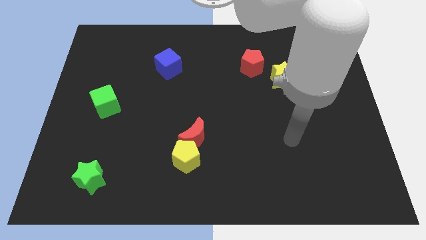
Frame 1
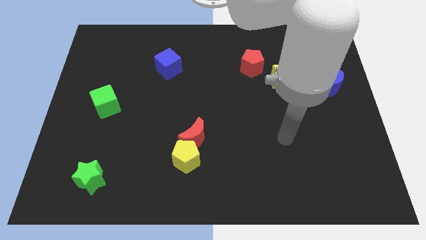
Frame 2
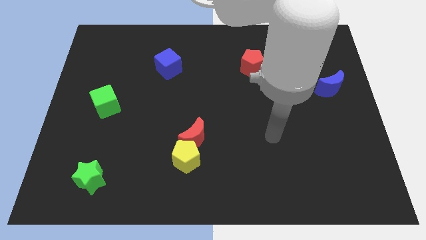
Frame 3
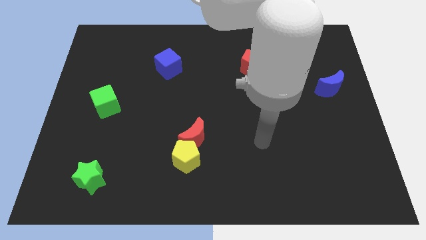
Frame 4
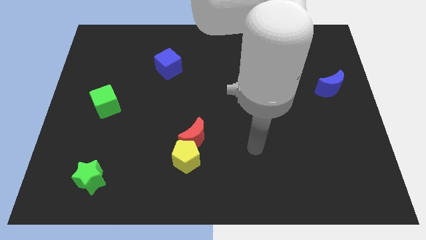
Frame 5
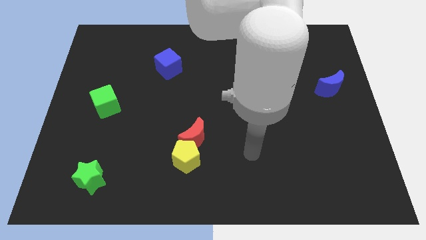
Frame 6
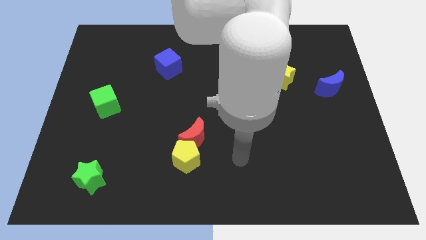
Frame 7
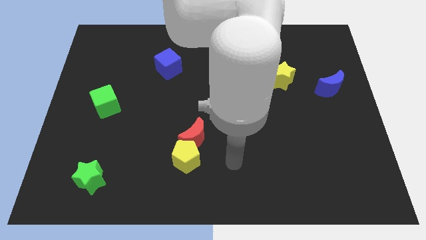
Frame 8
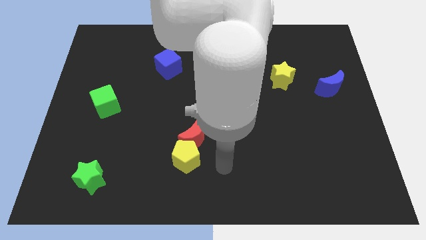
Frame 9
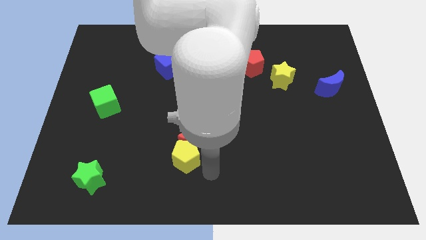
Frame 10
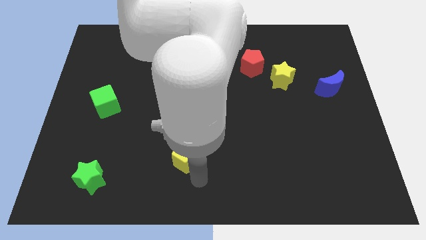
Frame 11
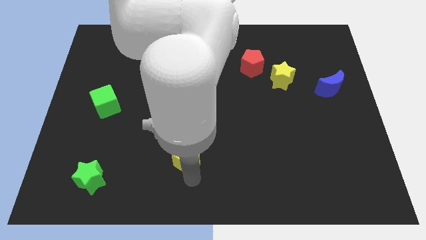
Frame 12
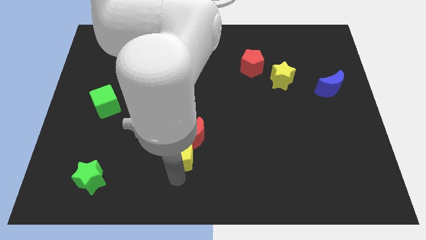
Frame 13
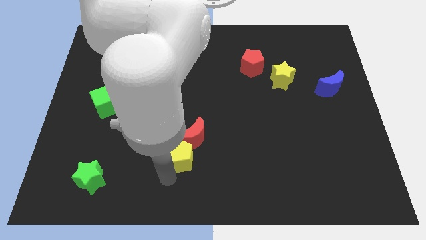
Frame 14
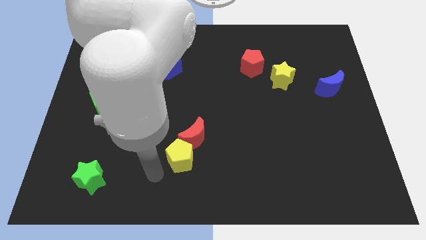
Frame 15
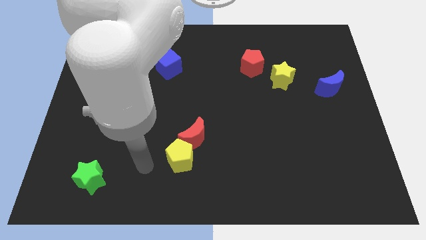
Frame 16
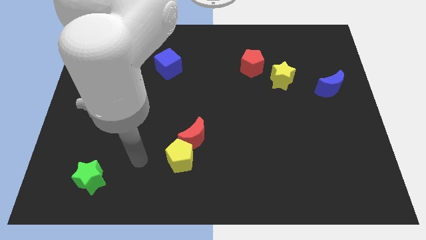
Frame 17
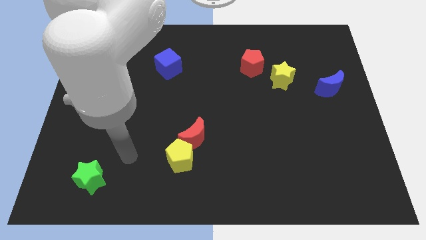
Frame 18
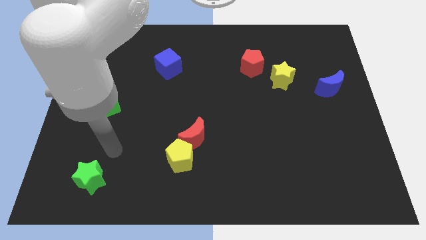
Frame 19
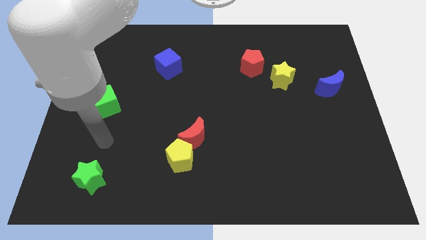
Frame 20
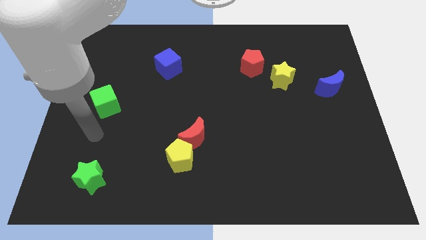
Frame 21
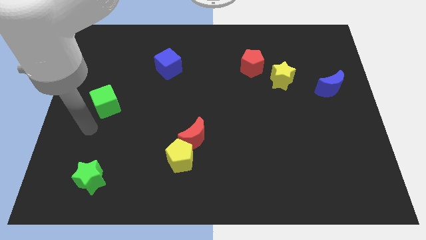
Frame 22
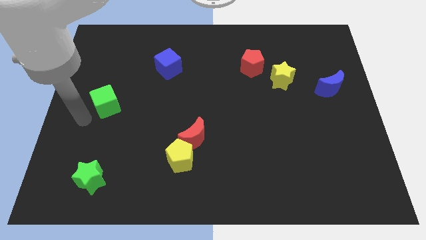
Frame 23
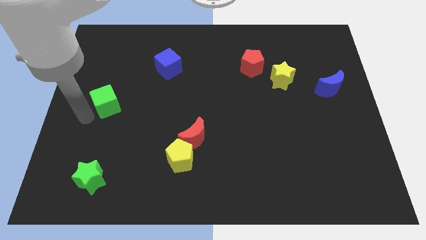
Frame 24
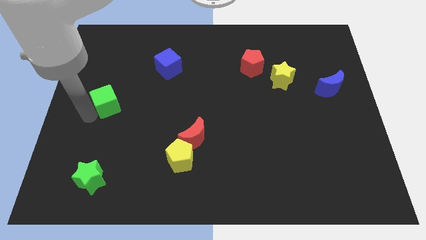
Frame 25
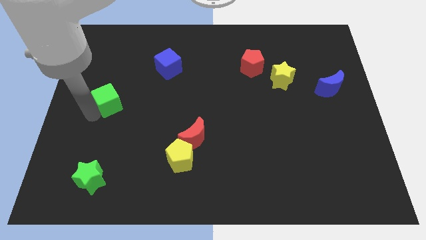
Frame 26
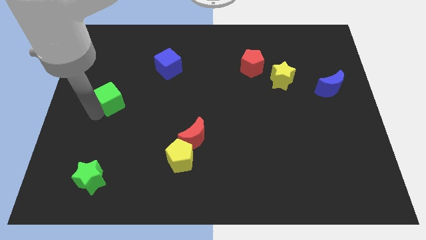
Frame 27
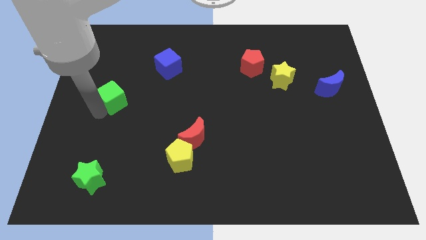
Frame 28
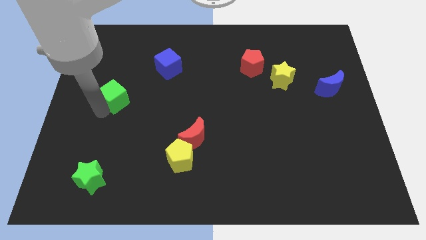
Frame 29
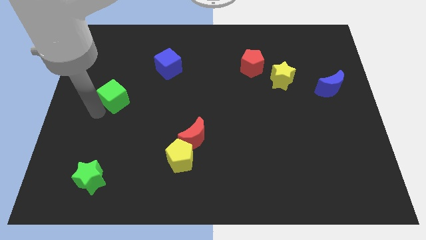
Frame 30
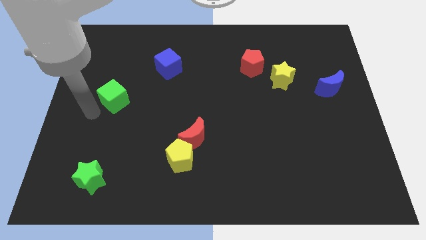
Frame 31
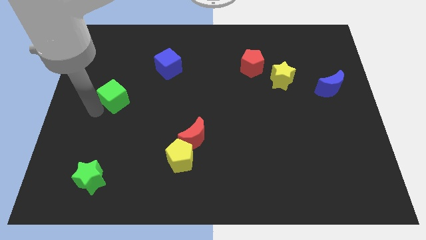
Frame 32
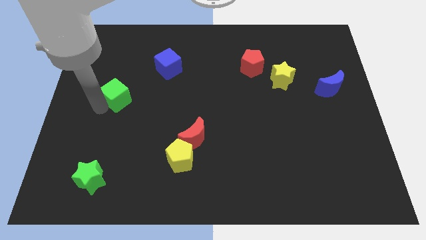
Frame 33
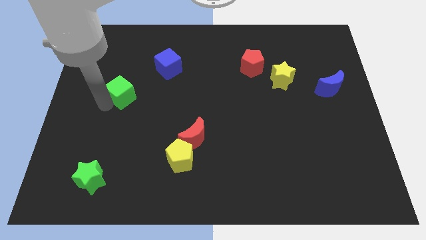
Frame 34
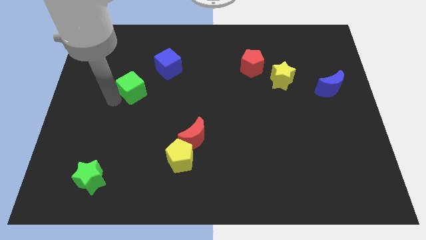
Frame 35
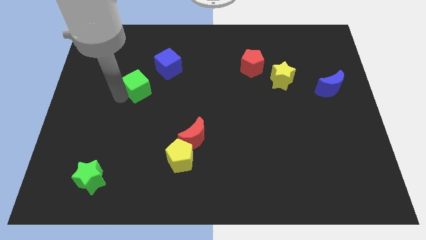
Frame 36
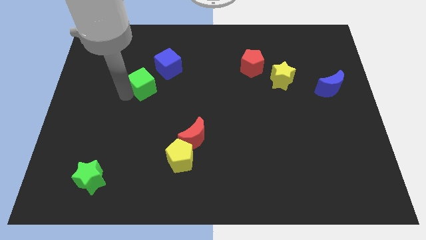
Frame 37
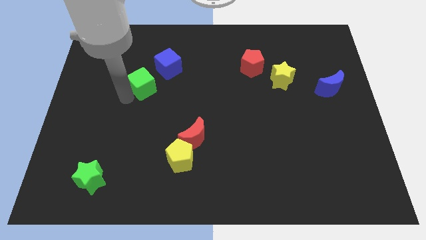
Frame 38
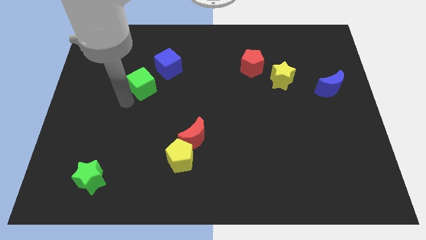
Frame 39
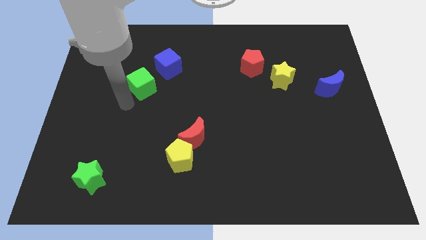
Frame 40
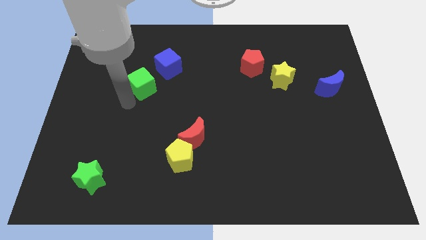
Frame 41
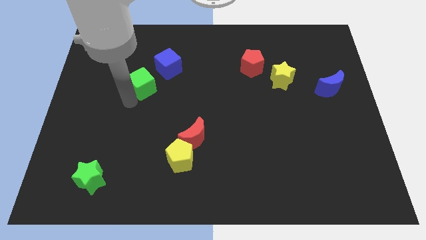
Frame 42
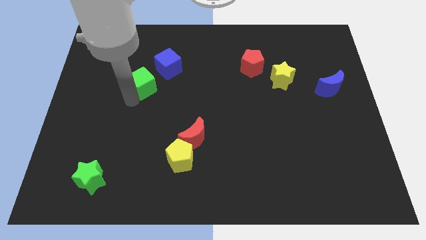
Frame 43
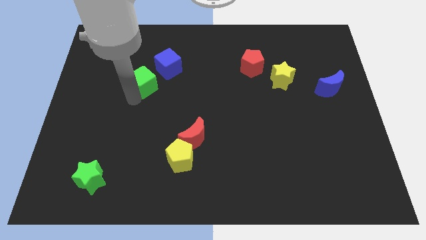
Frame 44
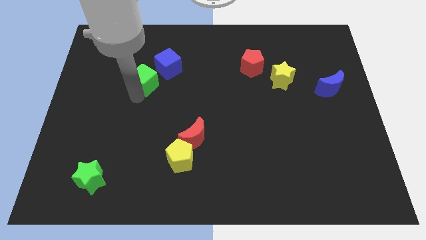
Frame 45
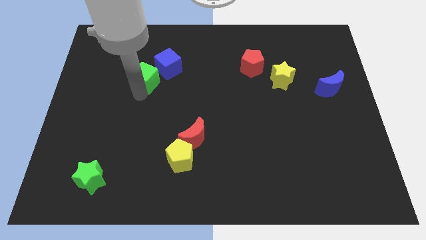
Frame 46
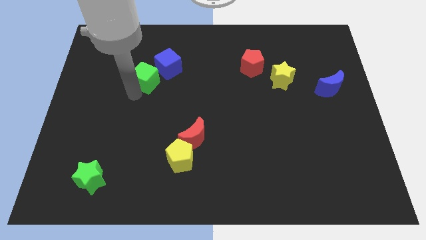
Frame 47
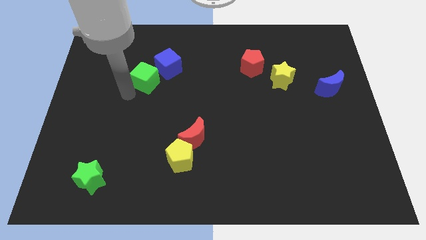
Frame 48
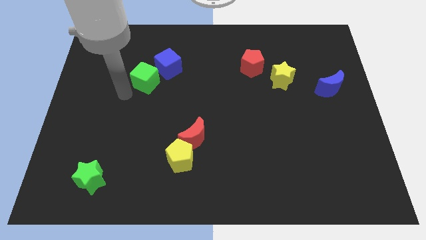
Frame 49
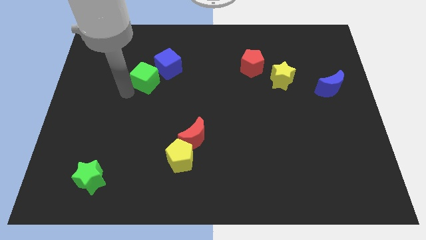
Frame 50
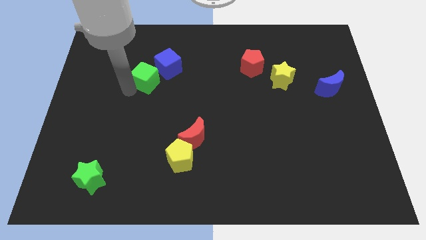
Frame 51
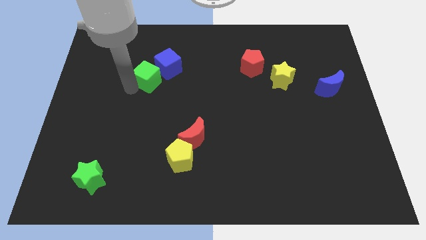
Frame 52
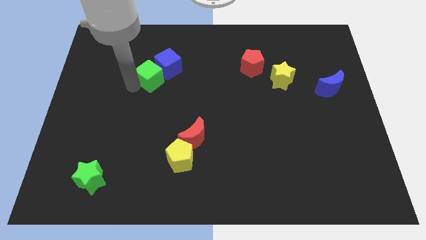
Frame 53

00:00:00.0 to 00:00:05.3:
move the green cube close to the blue cube

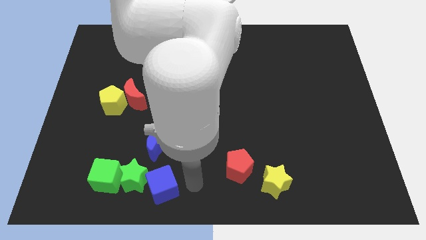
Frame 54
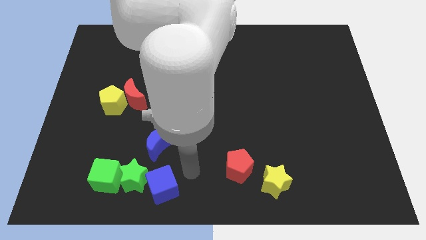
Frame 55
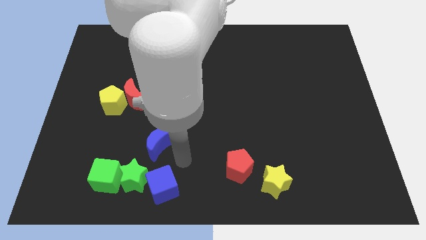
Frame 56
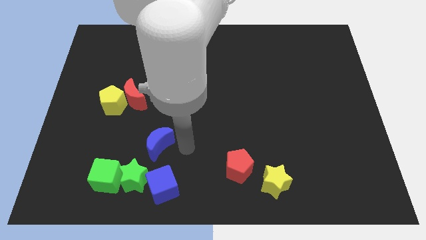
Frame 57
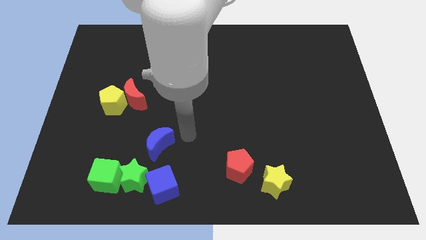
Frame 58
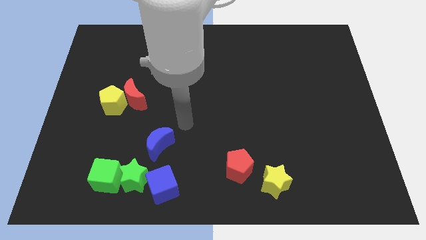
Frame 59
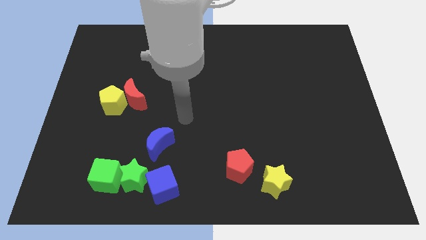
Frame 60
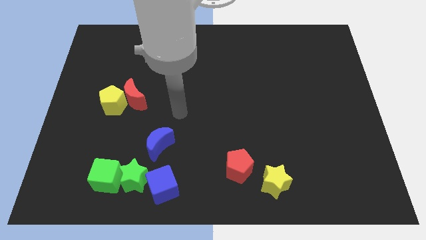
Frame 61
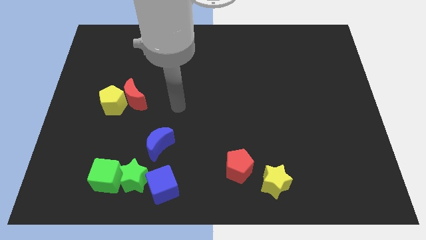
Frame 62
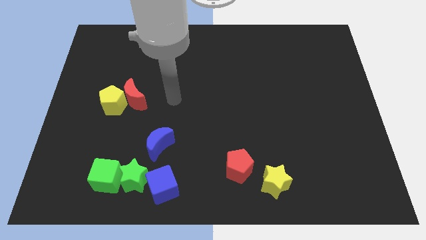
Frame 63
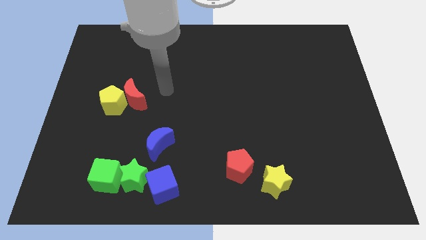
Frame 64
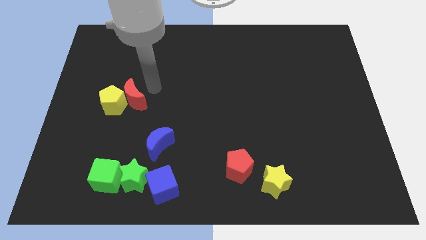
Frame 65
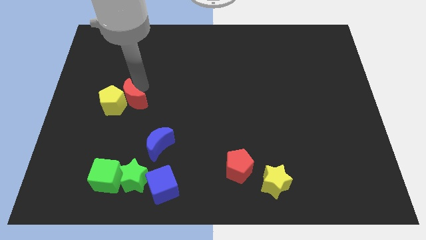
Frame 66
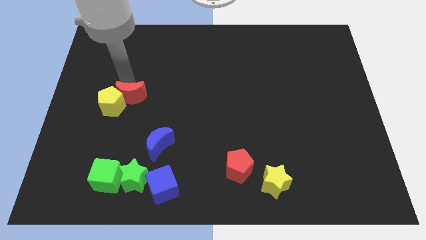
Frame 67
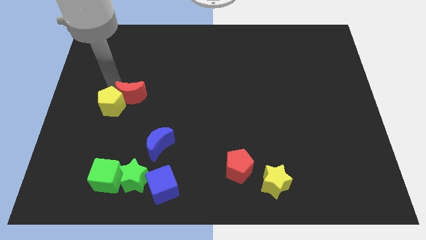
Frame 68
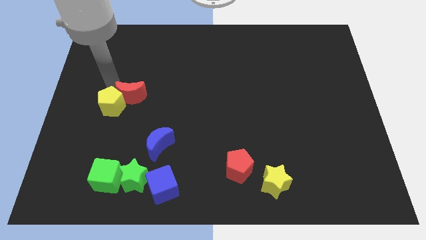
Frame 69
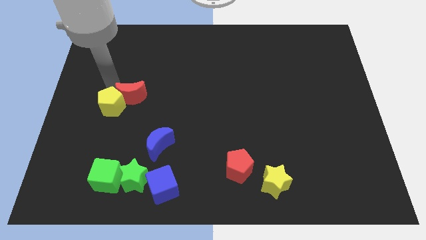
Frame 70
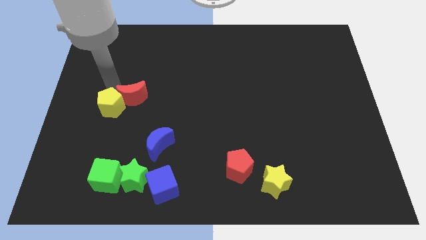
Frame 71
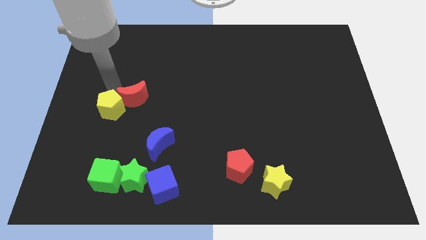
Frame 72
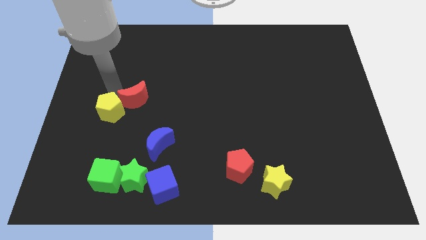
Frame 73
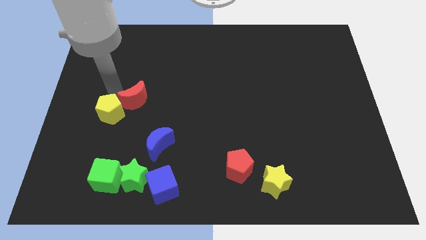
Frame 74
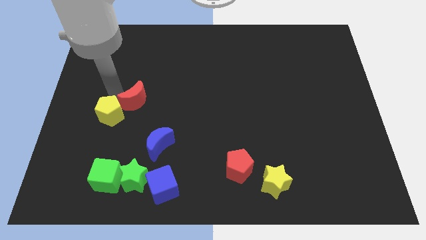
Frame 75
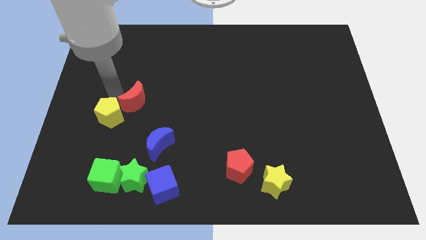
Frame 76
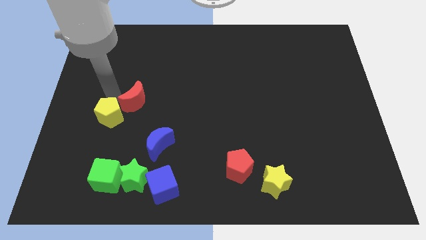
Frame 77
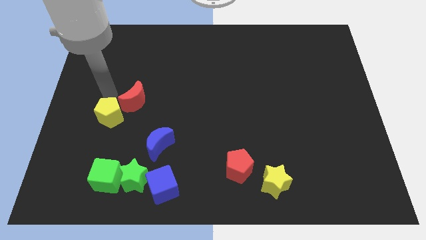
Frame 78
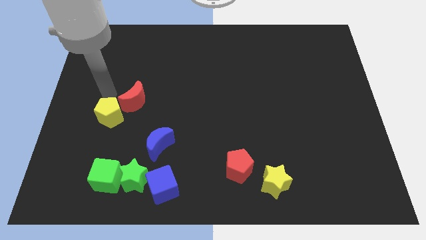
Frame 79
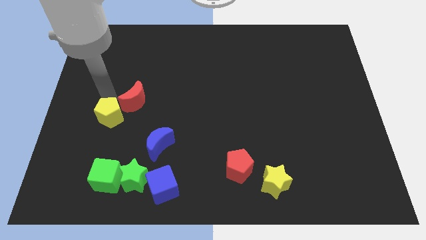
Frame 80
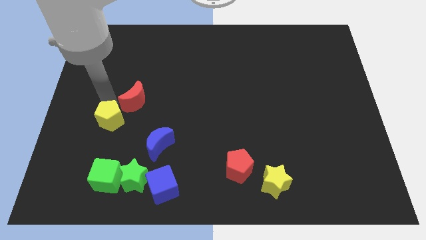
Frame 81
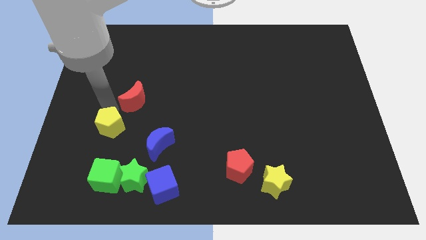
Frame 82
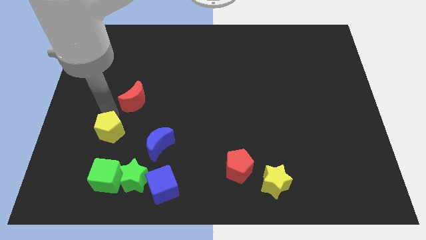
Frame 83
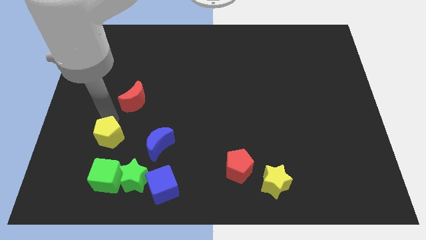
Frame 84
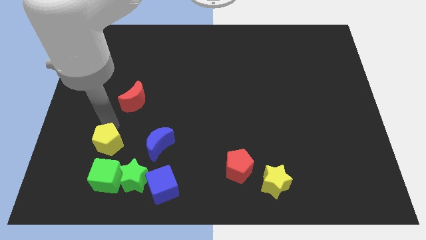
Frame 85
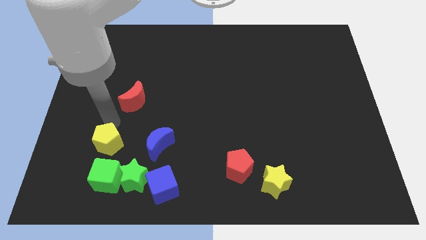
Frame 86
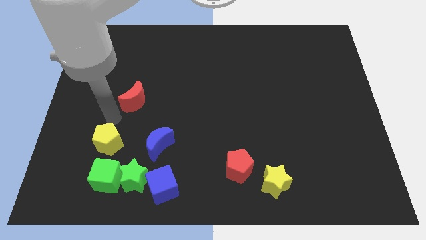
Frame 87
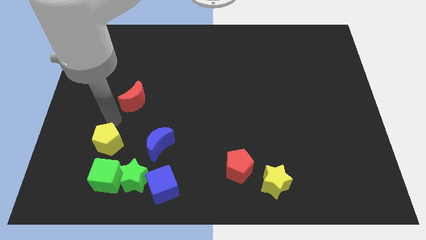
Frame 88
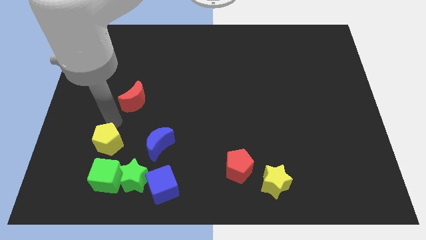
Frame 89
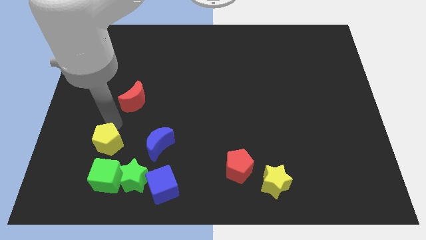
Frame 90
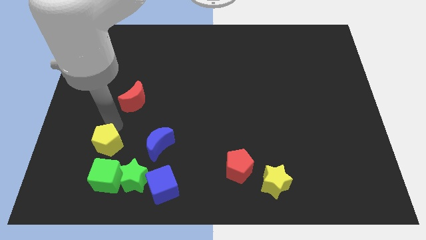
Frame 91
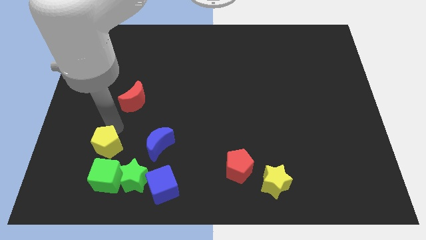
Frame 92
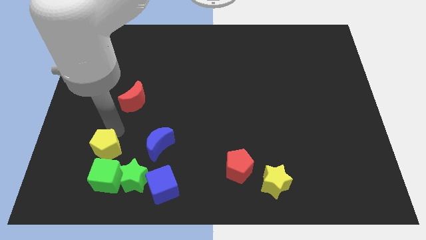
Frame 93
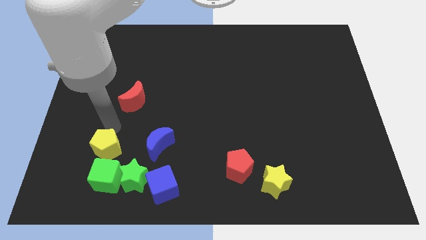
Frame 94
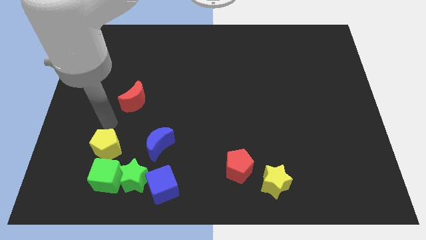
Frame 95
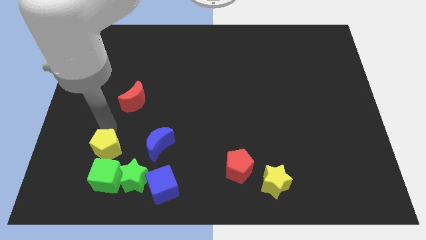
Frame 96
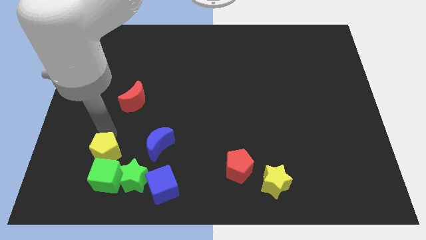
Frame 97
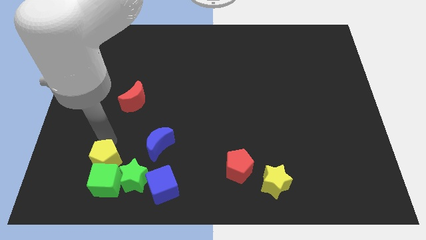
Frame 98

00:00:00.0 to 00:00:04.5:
push the yellow pentagon close to the green cube
